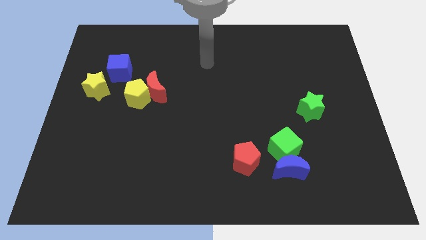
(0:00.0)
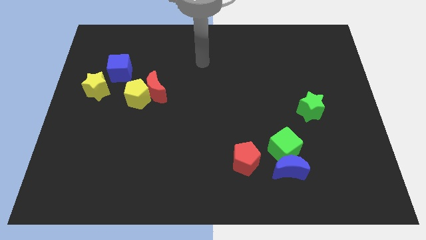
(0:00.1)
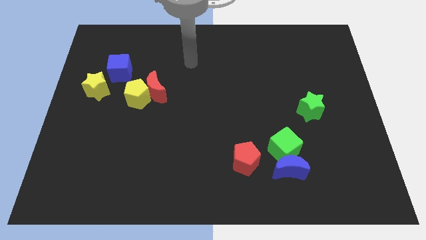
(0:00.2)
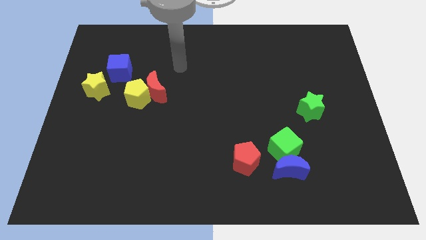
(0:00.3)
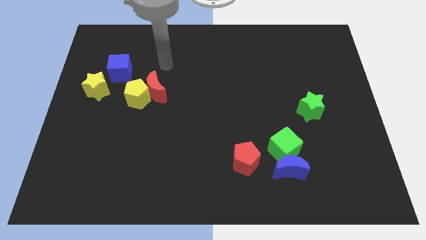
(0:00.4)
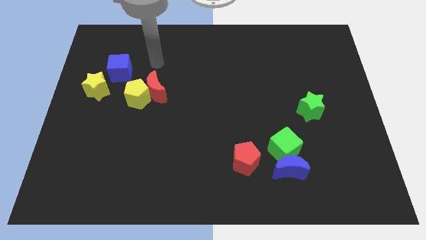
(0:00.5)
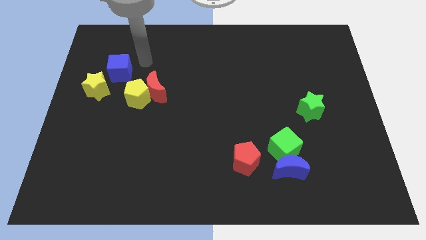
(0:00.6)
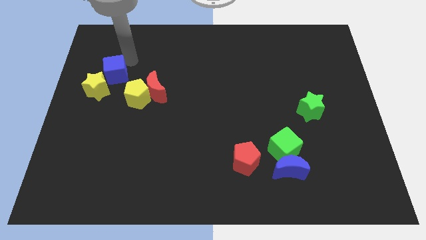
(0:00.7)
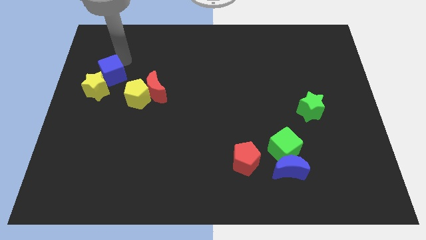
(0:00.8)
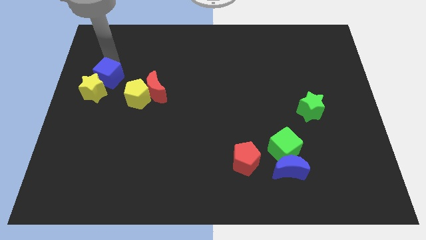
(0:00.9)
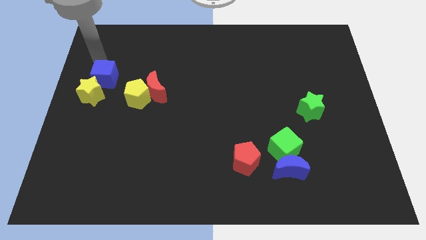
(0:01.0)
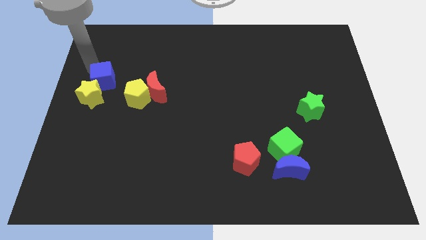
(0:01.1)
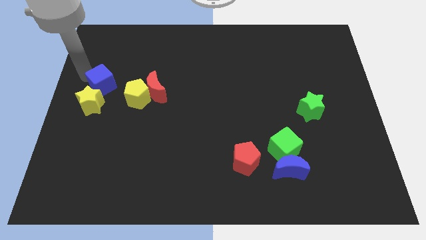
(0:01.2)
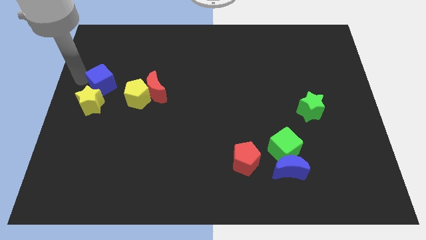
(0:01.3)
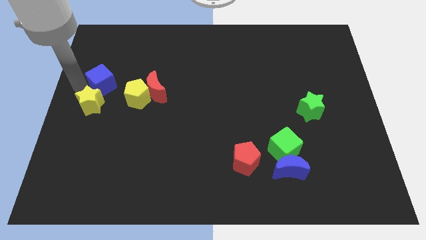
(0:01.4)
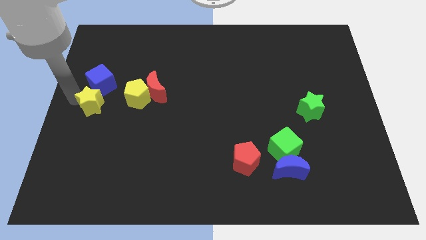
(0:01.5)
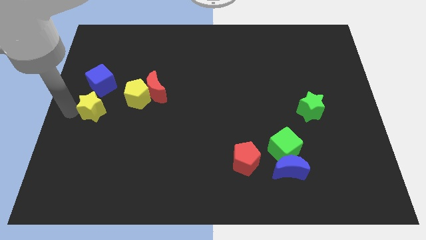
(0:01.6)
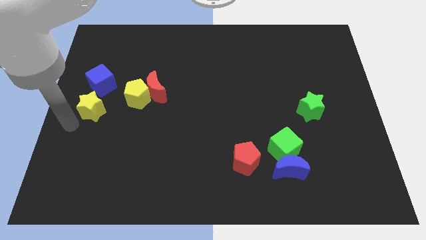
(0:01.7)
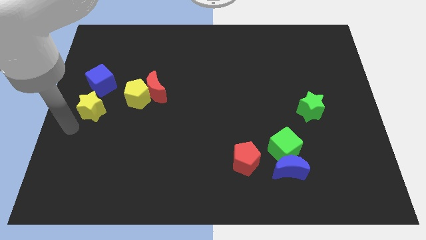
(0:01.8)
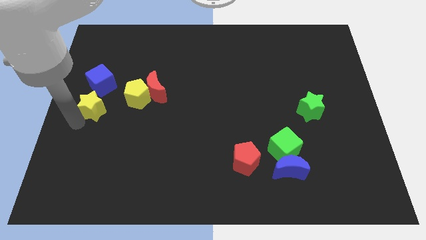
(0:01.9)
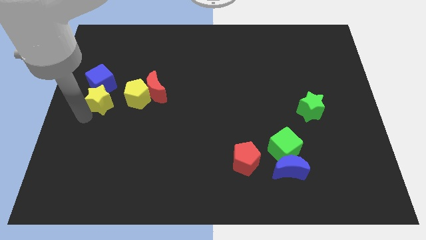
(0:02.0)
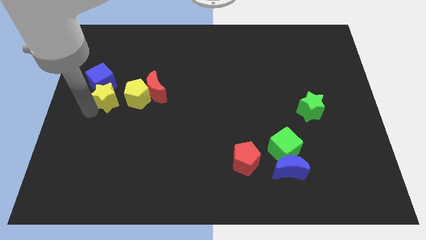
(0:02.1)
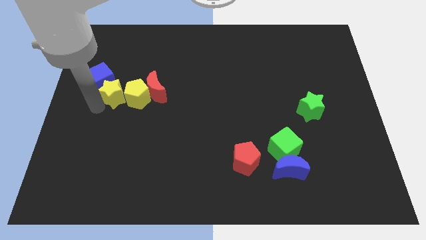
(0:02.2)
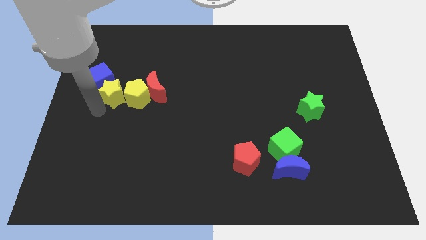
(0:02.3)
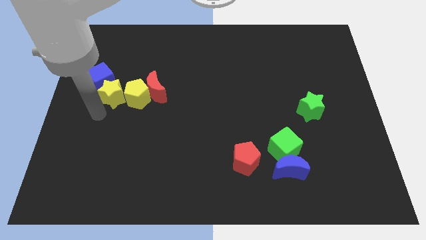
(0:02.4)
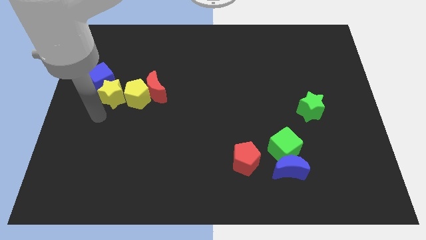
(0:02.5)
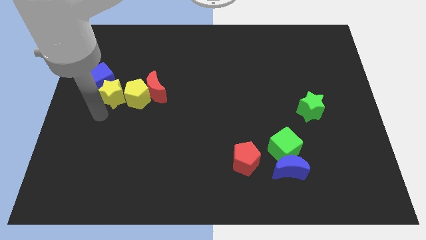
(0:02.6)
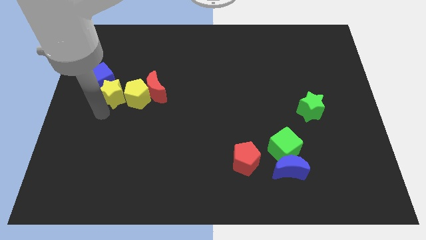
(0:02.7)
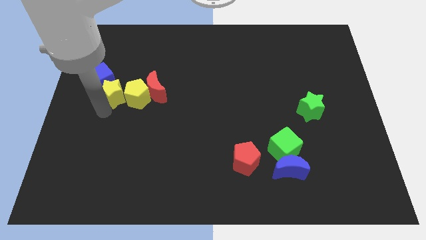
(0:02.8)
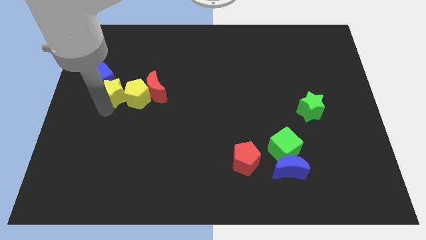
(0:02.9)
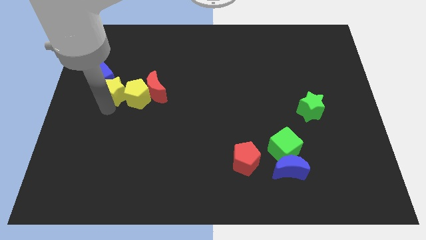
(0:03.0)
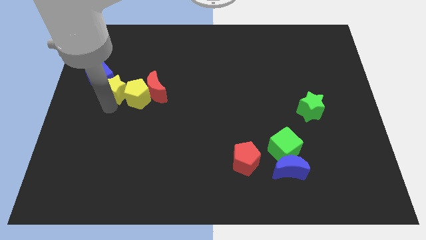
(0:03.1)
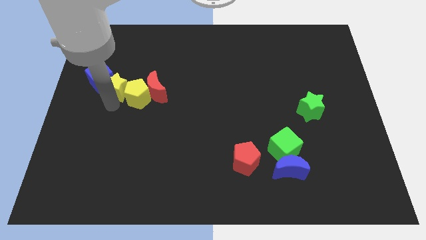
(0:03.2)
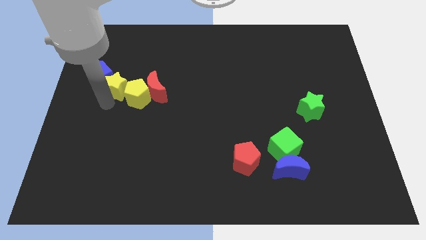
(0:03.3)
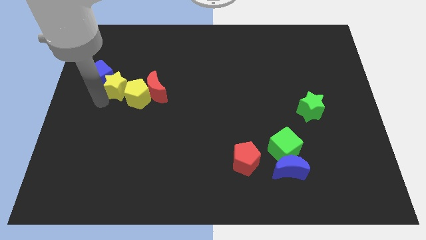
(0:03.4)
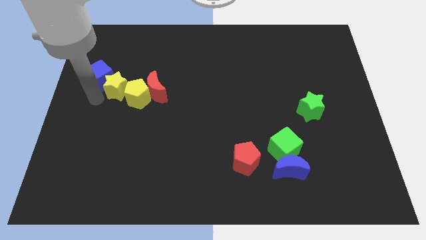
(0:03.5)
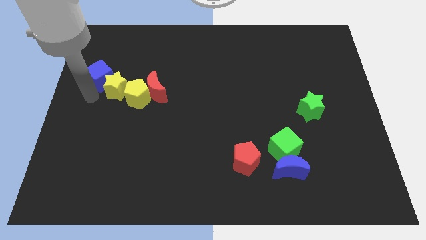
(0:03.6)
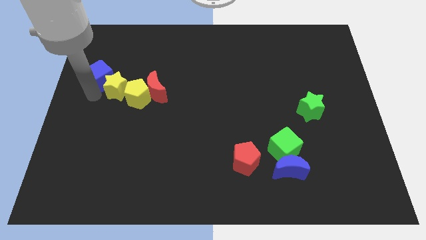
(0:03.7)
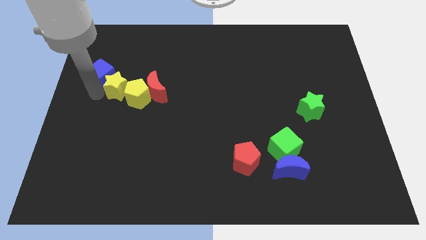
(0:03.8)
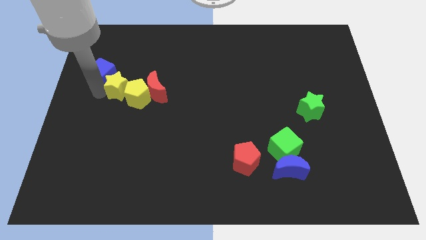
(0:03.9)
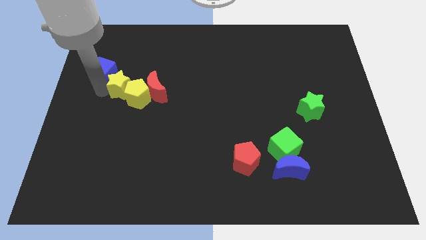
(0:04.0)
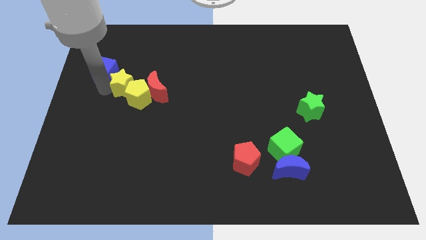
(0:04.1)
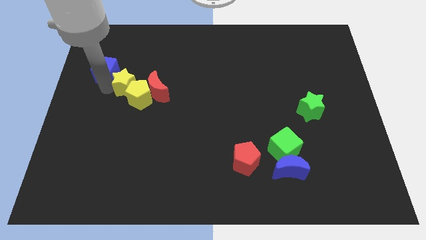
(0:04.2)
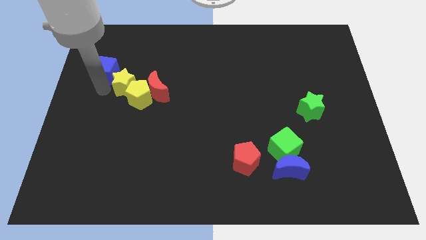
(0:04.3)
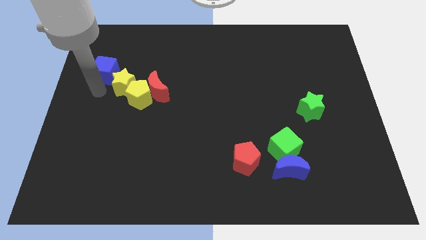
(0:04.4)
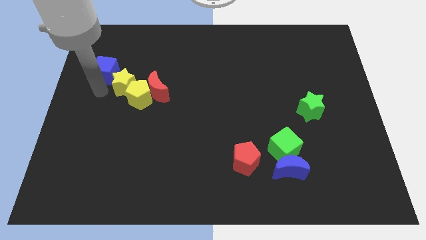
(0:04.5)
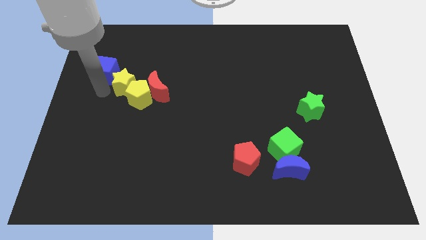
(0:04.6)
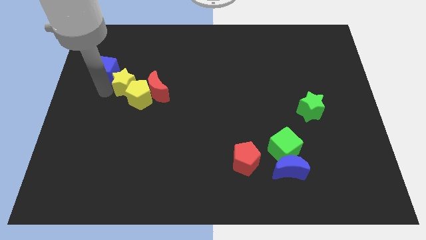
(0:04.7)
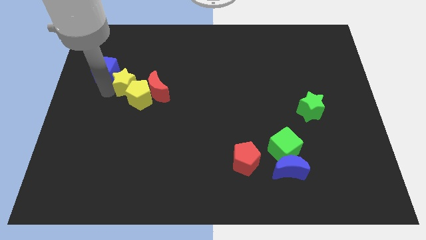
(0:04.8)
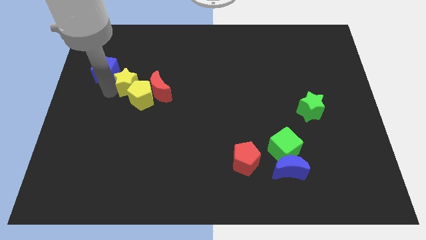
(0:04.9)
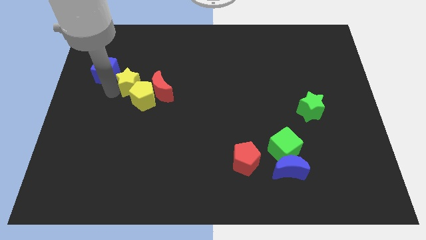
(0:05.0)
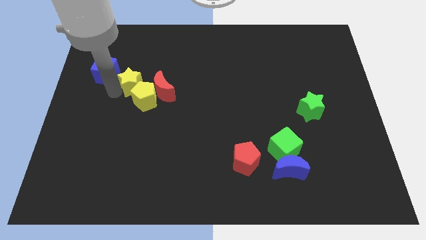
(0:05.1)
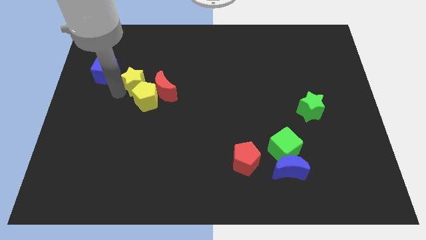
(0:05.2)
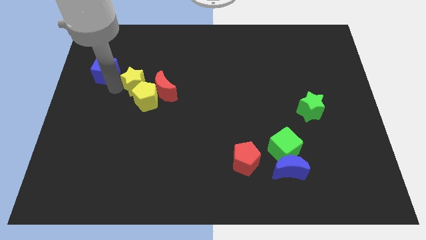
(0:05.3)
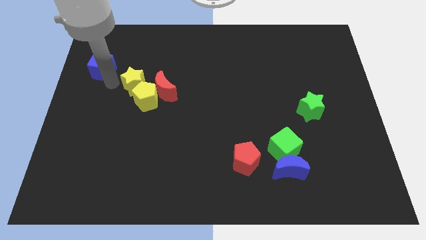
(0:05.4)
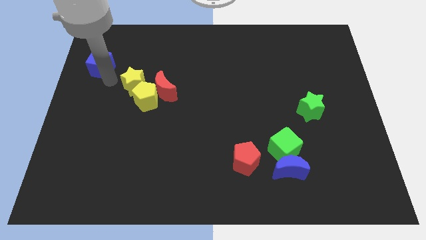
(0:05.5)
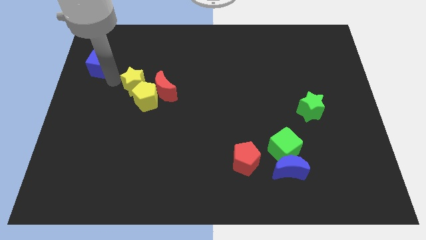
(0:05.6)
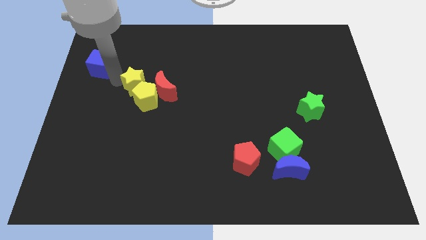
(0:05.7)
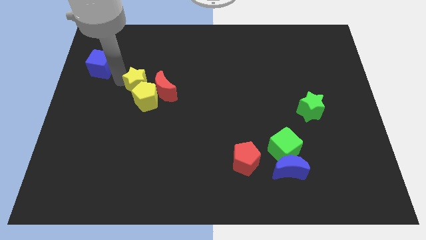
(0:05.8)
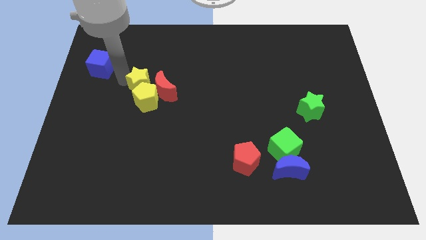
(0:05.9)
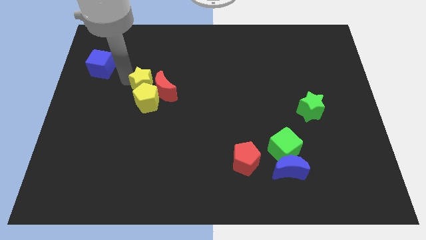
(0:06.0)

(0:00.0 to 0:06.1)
put the yellow star close to the red moon

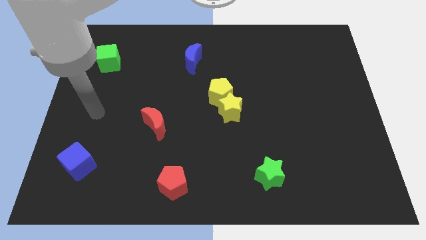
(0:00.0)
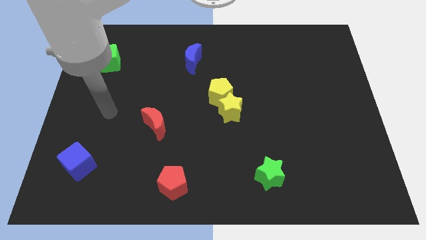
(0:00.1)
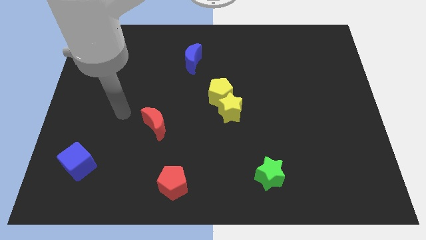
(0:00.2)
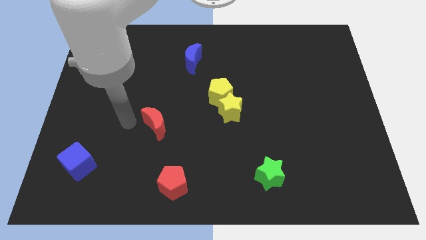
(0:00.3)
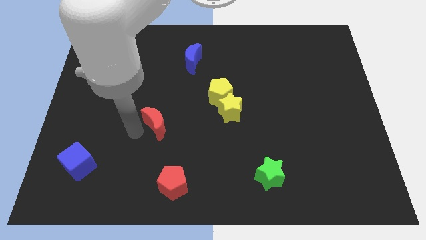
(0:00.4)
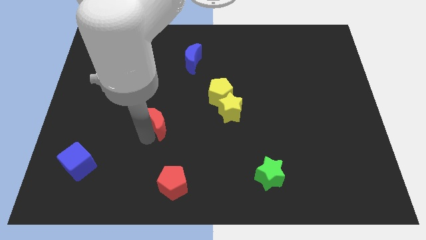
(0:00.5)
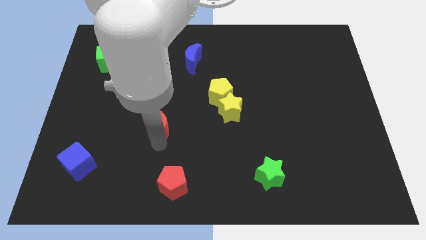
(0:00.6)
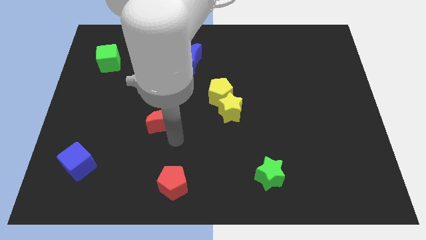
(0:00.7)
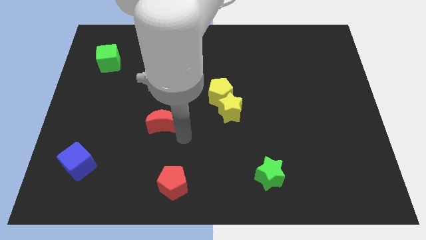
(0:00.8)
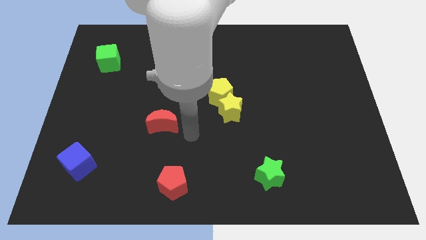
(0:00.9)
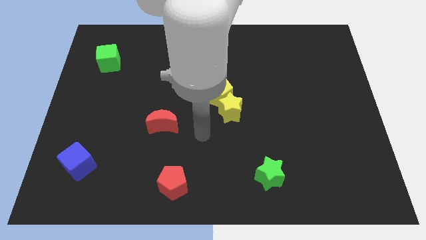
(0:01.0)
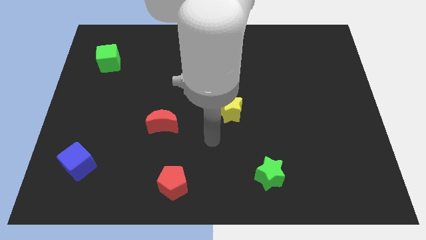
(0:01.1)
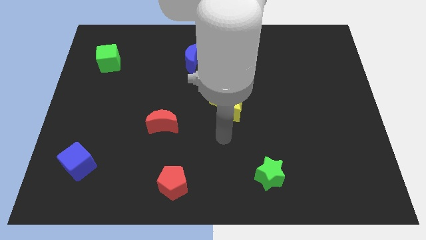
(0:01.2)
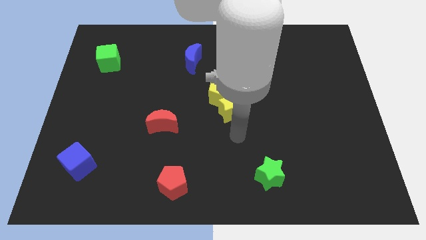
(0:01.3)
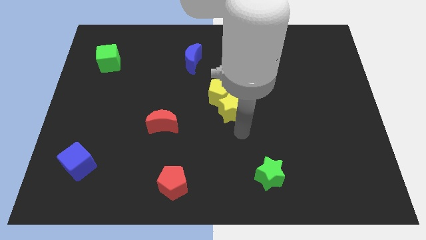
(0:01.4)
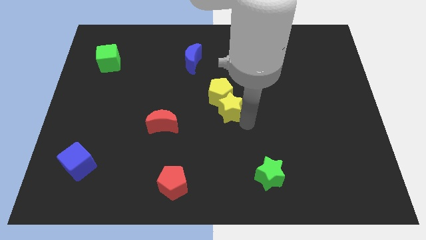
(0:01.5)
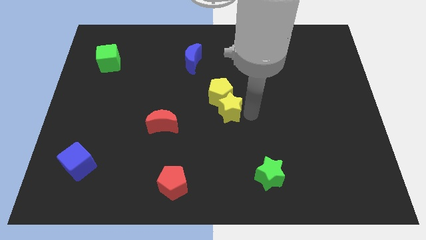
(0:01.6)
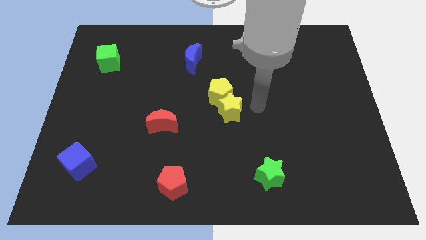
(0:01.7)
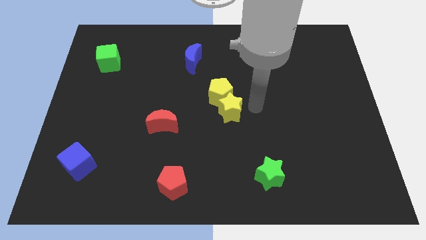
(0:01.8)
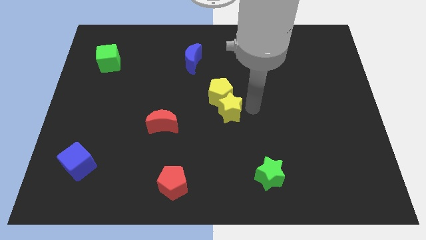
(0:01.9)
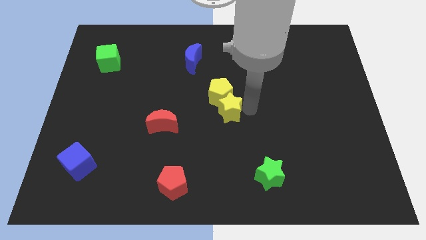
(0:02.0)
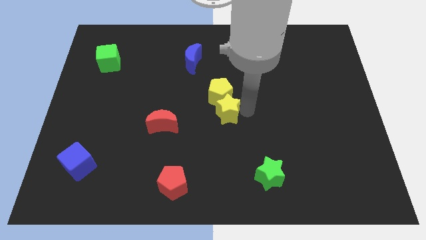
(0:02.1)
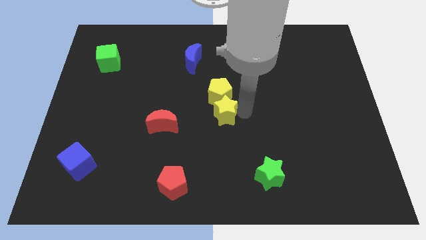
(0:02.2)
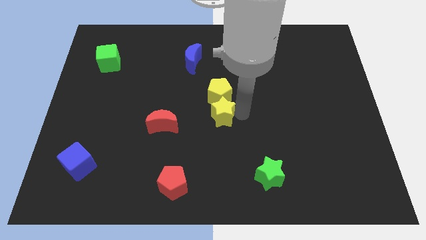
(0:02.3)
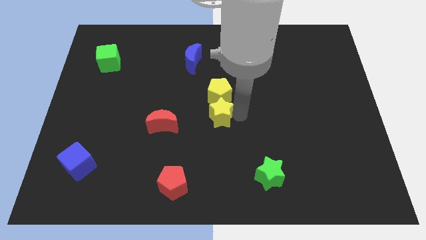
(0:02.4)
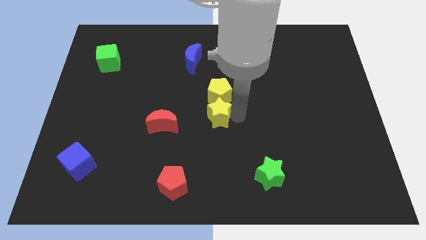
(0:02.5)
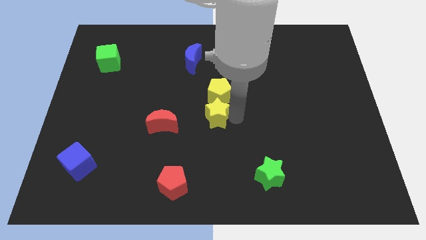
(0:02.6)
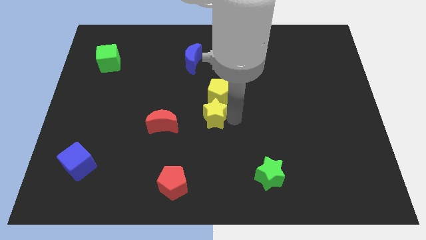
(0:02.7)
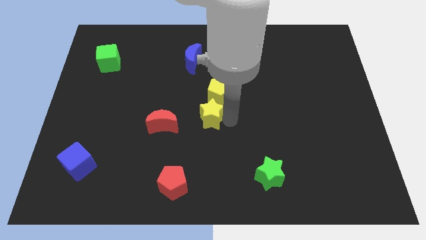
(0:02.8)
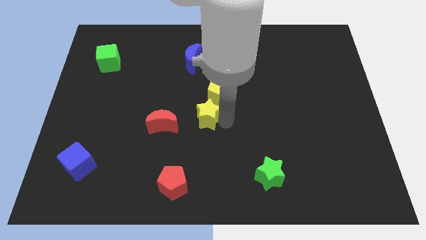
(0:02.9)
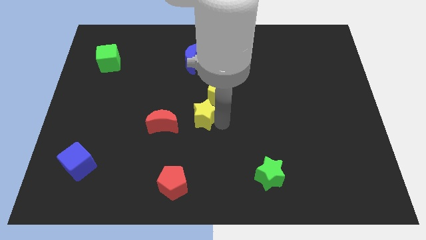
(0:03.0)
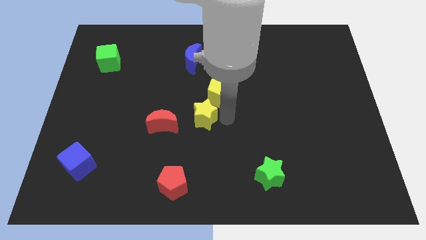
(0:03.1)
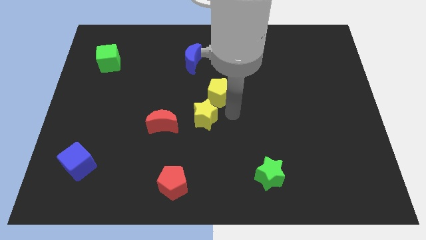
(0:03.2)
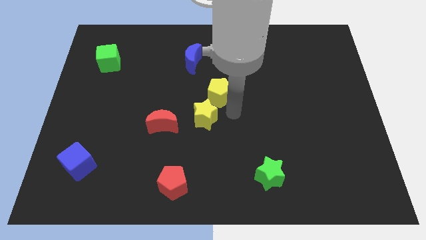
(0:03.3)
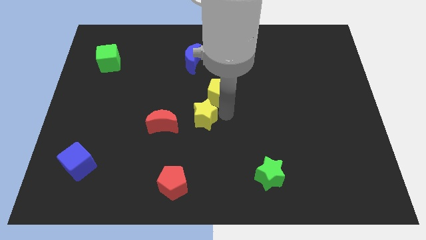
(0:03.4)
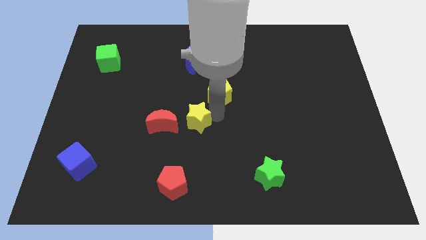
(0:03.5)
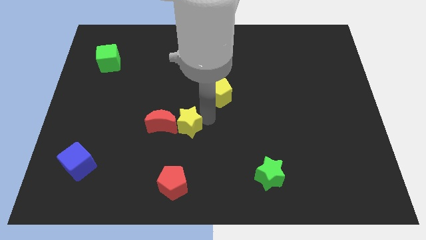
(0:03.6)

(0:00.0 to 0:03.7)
put the yellow star towards the red moon
